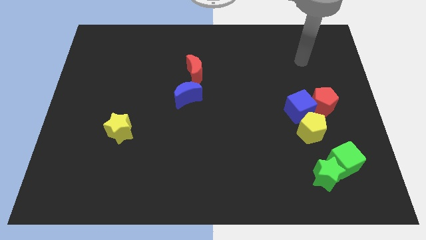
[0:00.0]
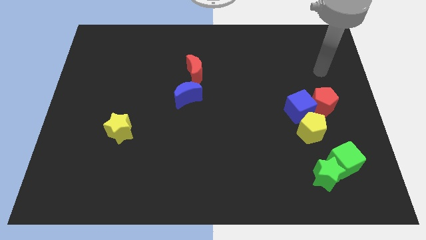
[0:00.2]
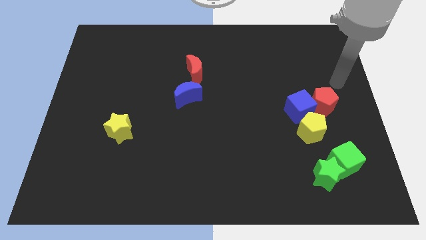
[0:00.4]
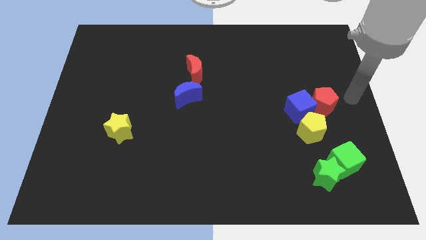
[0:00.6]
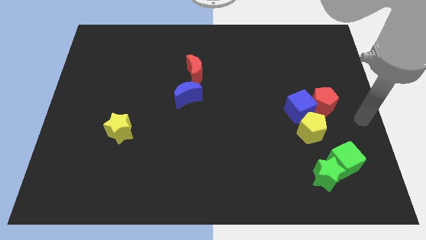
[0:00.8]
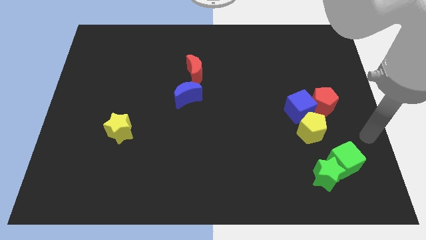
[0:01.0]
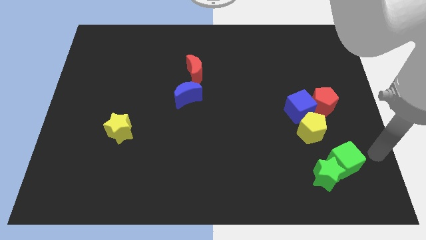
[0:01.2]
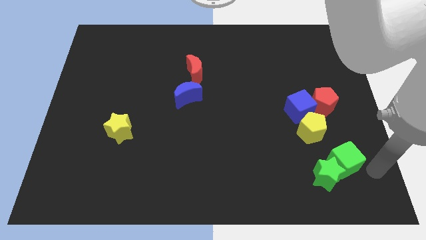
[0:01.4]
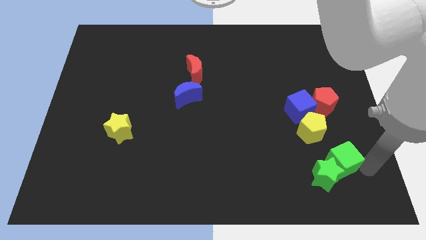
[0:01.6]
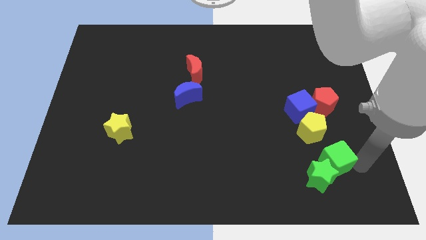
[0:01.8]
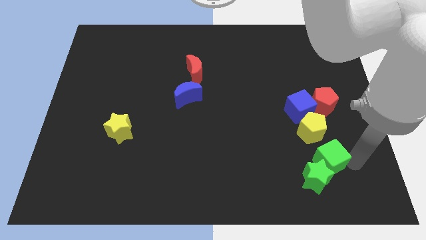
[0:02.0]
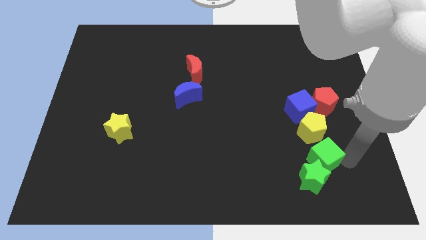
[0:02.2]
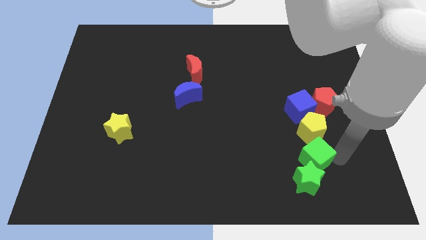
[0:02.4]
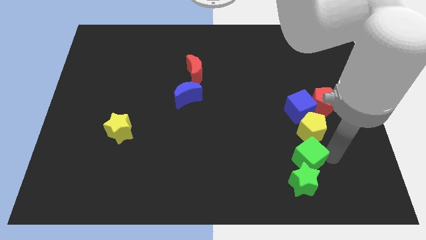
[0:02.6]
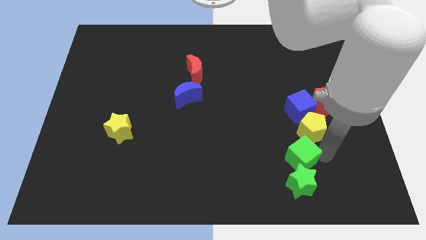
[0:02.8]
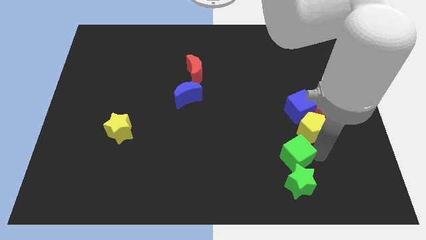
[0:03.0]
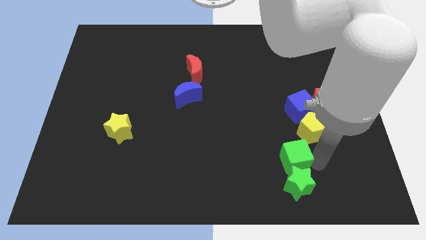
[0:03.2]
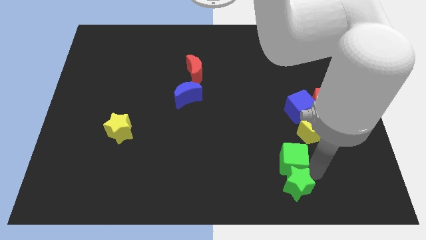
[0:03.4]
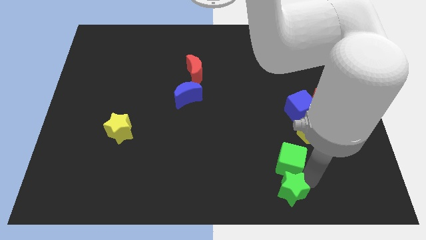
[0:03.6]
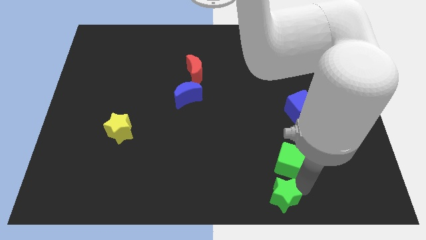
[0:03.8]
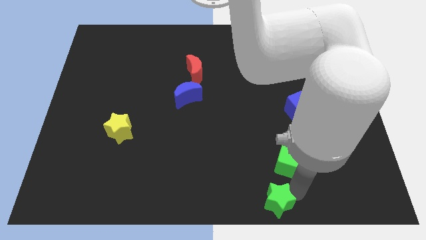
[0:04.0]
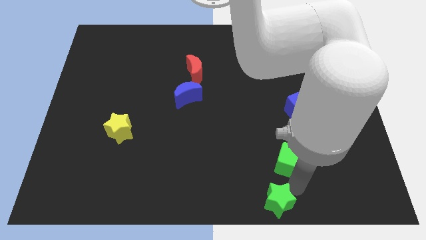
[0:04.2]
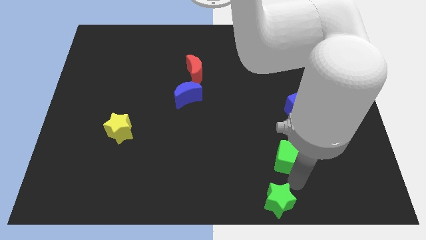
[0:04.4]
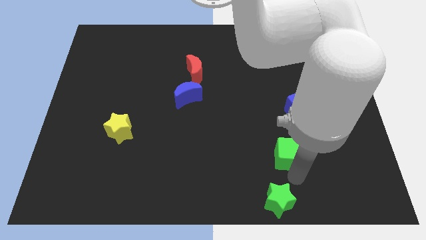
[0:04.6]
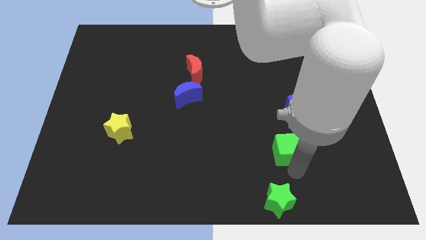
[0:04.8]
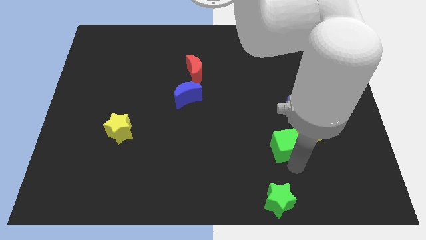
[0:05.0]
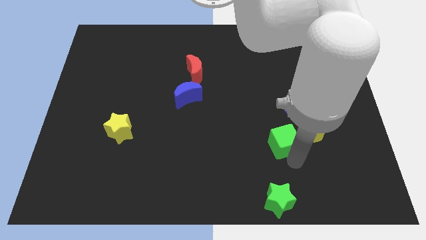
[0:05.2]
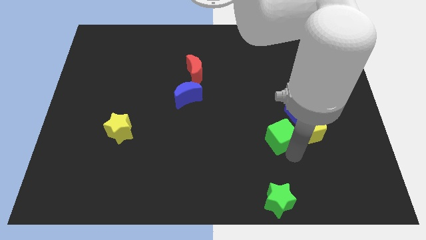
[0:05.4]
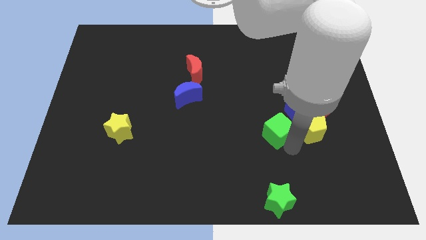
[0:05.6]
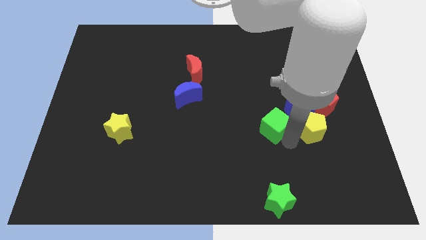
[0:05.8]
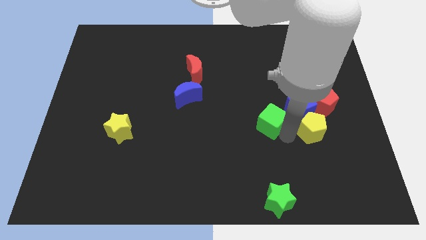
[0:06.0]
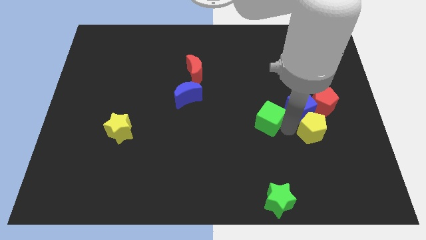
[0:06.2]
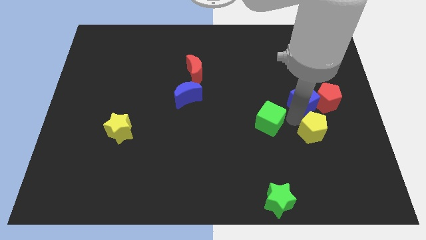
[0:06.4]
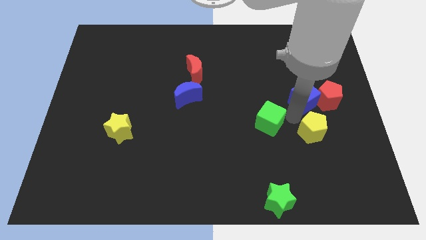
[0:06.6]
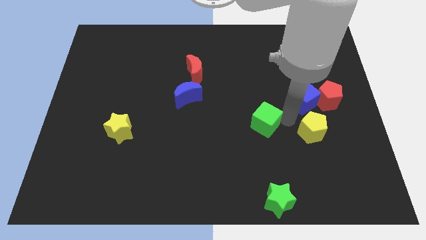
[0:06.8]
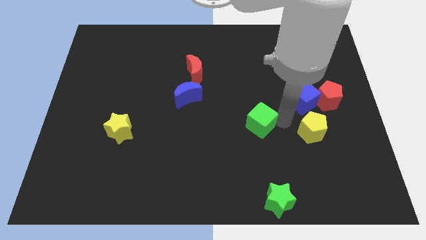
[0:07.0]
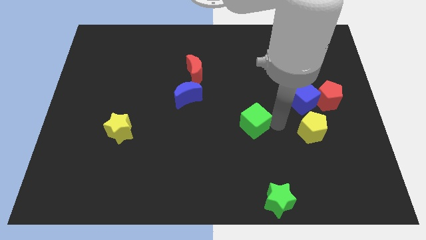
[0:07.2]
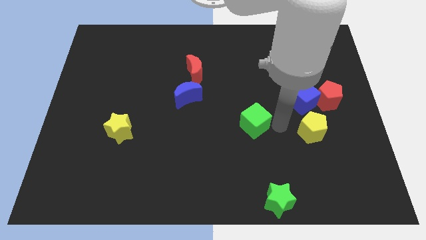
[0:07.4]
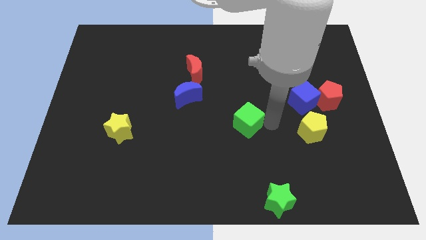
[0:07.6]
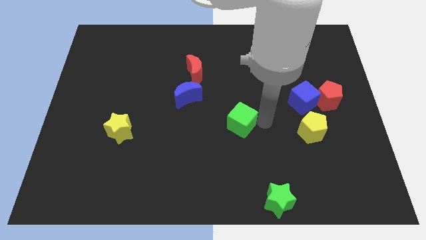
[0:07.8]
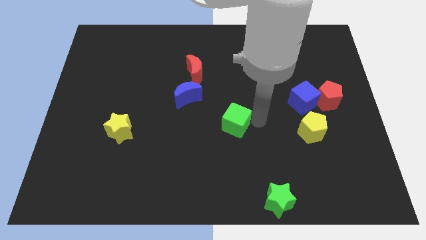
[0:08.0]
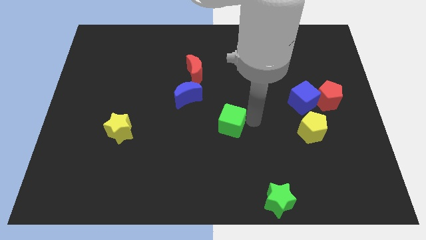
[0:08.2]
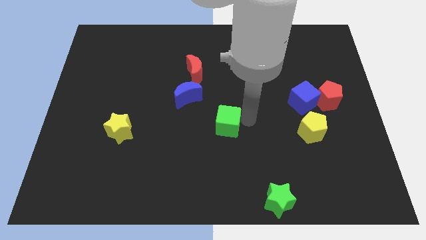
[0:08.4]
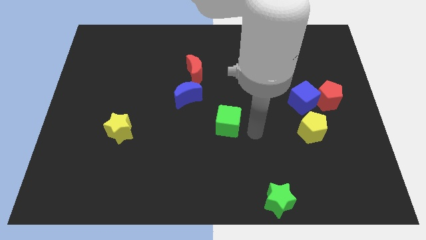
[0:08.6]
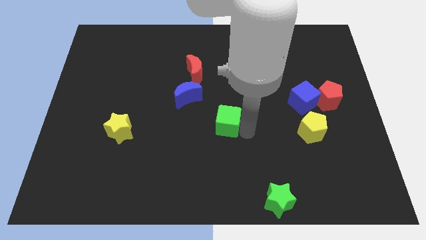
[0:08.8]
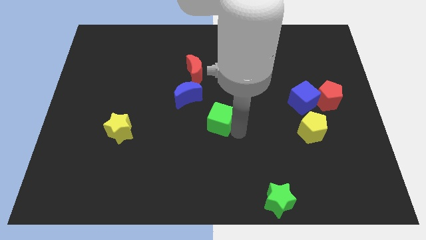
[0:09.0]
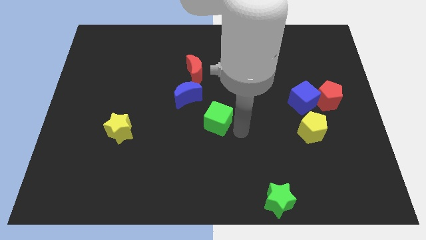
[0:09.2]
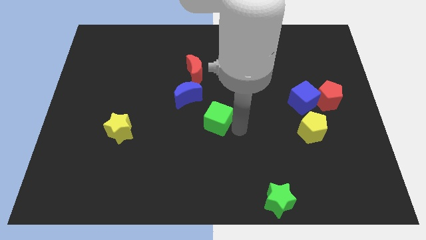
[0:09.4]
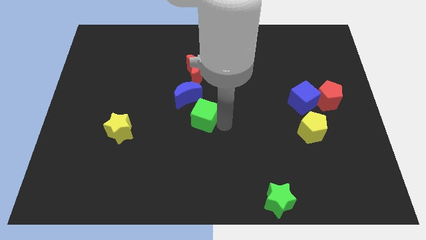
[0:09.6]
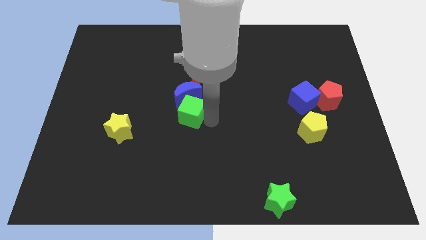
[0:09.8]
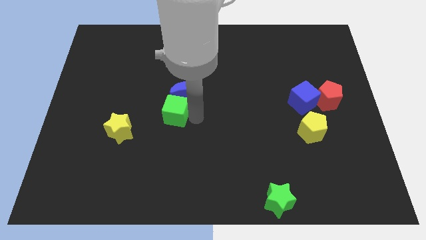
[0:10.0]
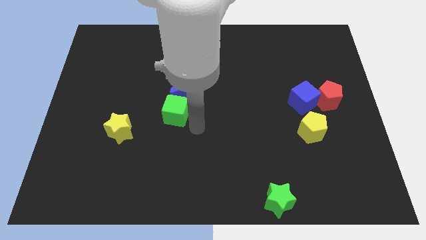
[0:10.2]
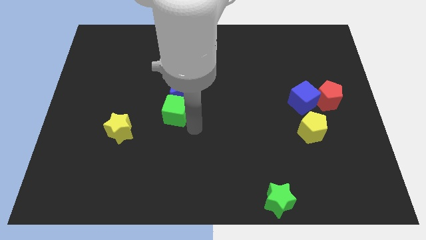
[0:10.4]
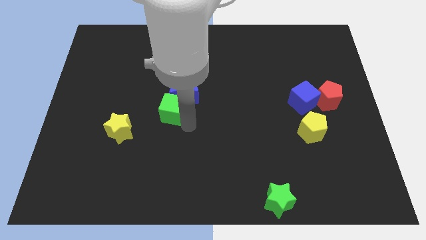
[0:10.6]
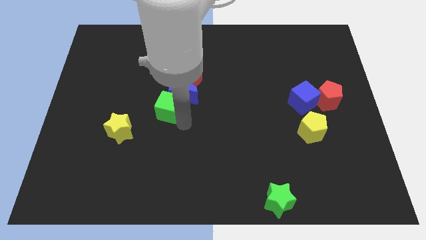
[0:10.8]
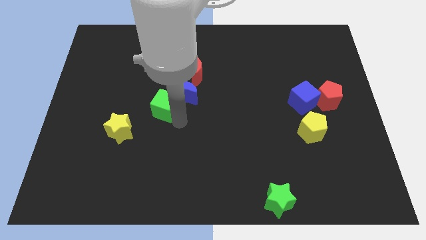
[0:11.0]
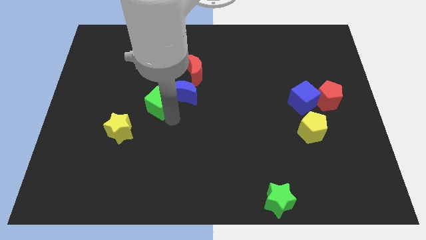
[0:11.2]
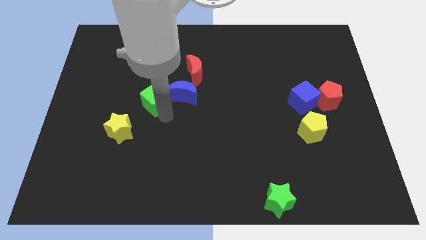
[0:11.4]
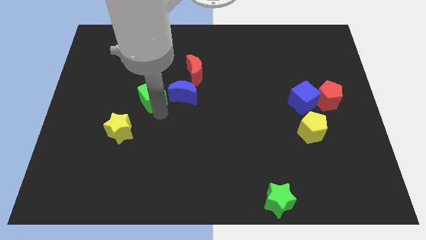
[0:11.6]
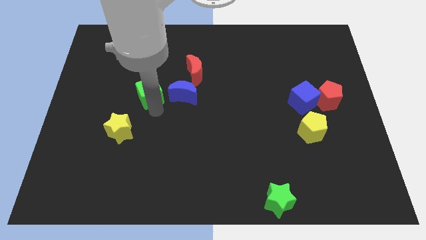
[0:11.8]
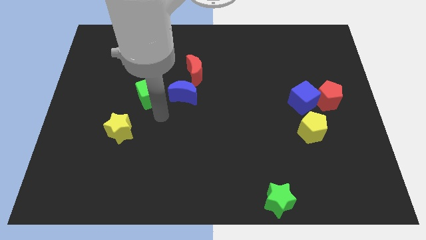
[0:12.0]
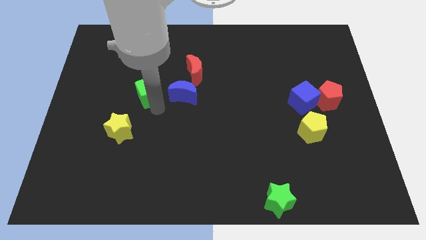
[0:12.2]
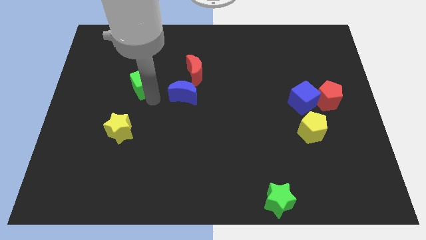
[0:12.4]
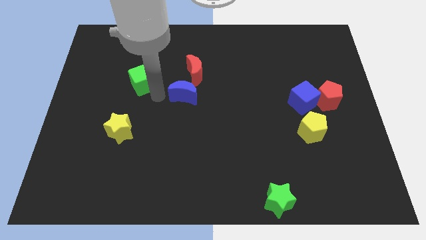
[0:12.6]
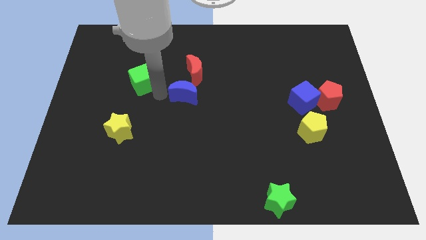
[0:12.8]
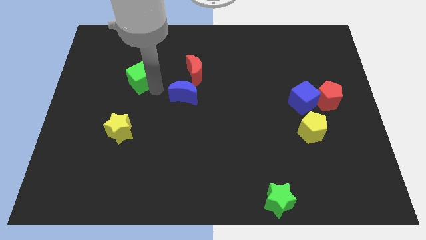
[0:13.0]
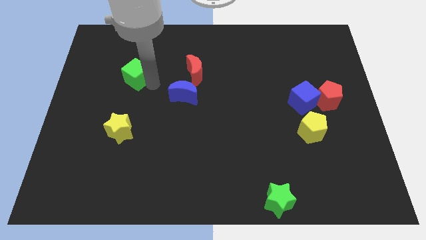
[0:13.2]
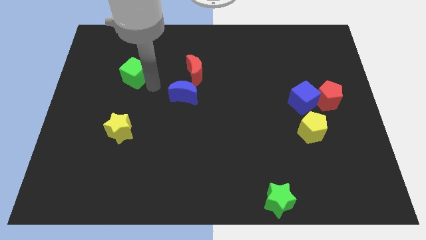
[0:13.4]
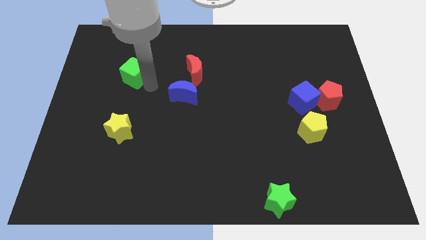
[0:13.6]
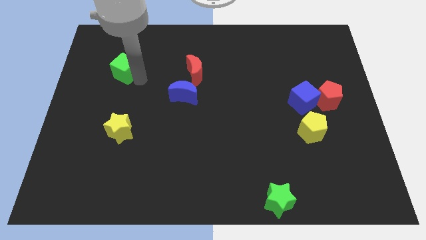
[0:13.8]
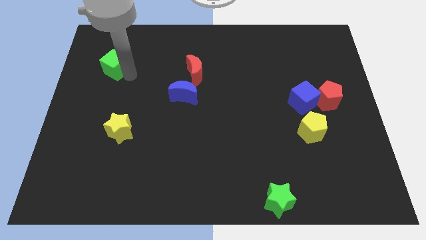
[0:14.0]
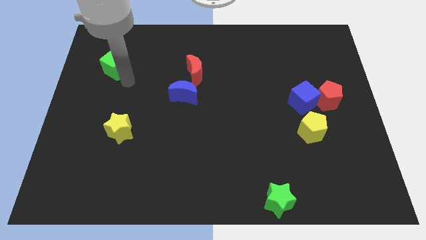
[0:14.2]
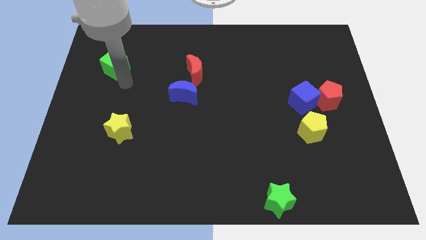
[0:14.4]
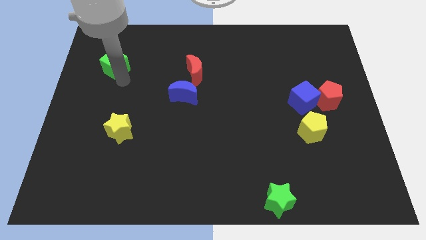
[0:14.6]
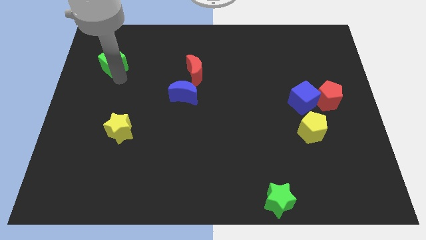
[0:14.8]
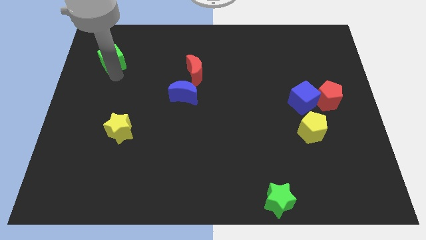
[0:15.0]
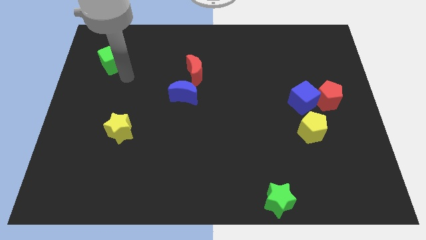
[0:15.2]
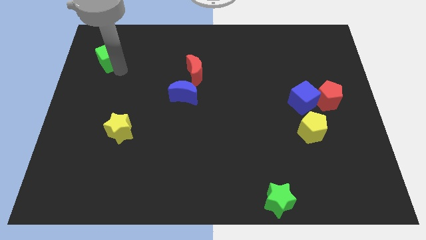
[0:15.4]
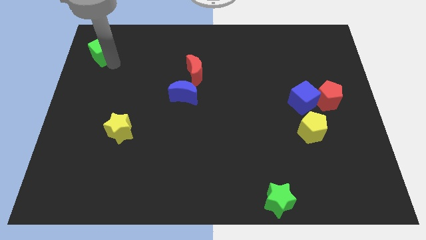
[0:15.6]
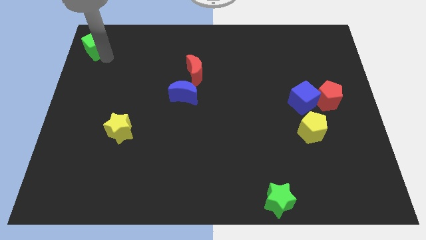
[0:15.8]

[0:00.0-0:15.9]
put the green cube to the upper left corner
